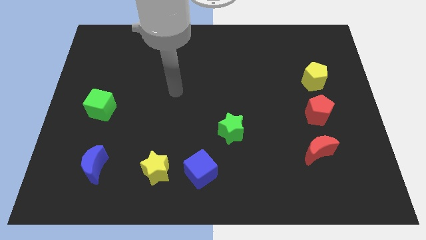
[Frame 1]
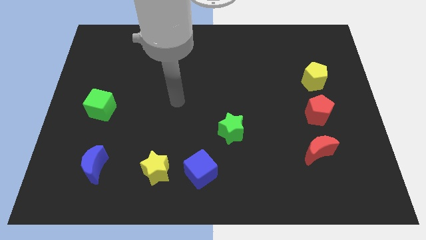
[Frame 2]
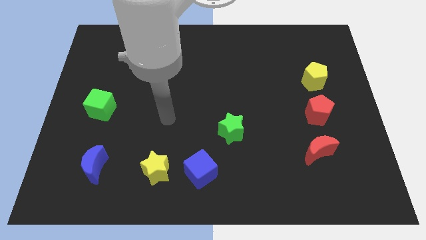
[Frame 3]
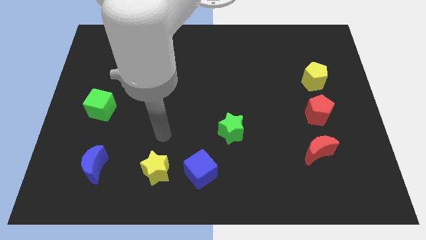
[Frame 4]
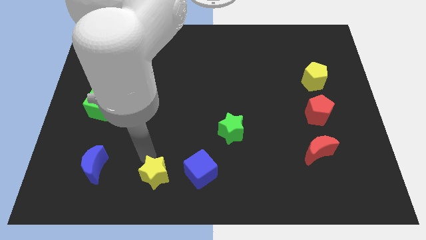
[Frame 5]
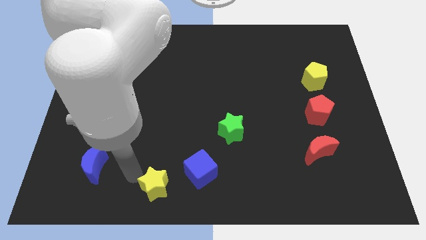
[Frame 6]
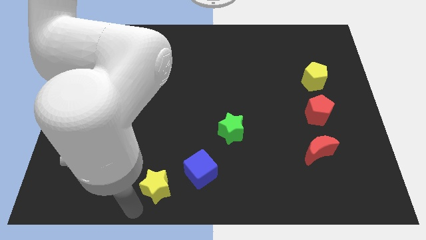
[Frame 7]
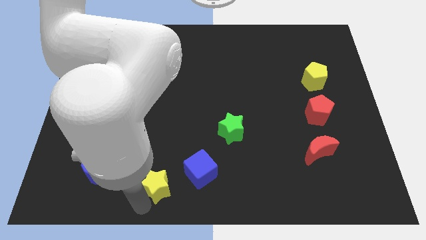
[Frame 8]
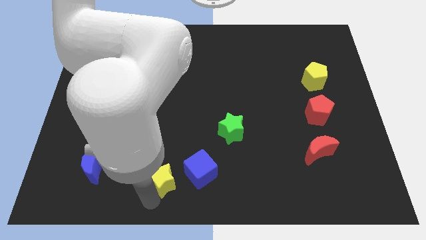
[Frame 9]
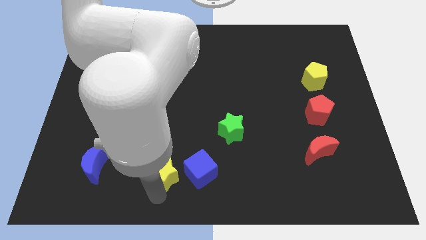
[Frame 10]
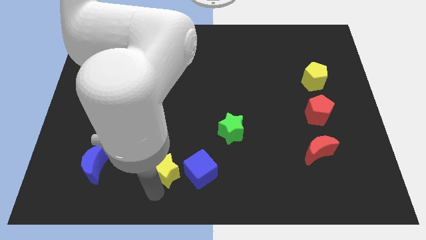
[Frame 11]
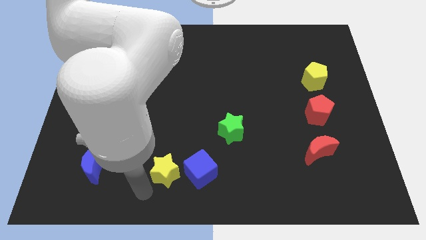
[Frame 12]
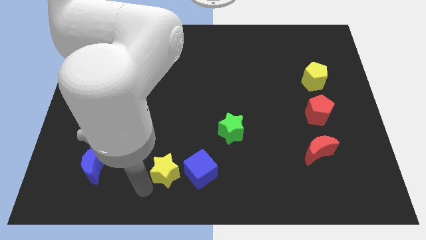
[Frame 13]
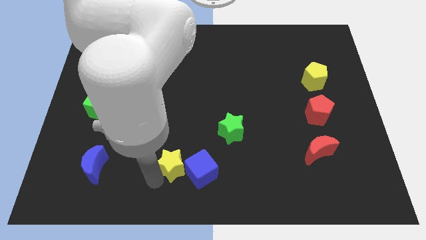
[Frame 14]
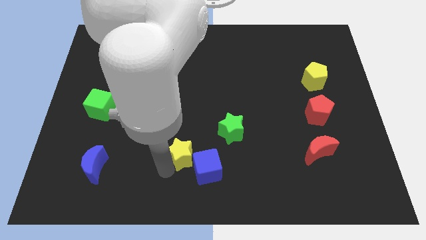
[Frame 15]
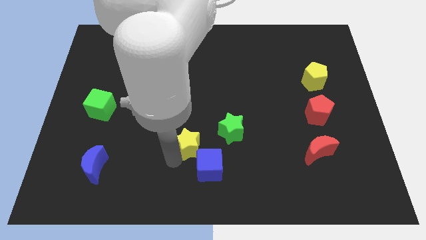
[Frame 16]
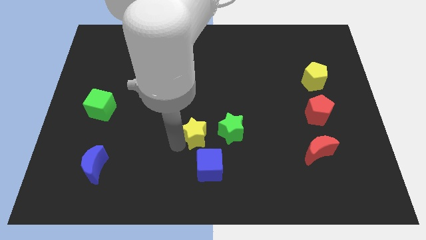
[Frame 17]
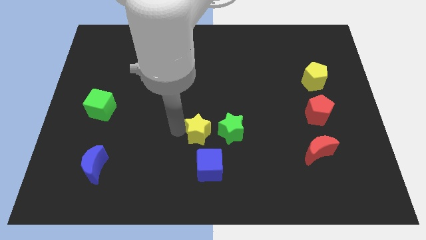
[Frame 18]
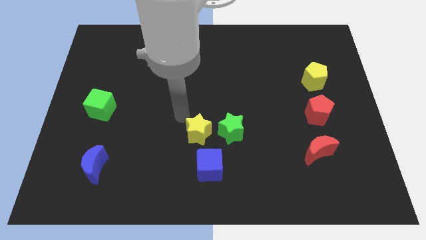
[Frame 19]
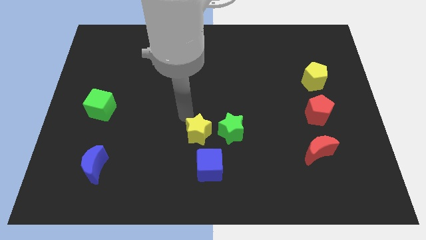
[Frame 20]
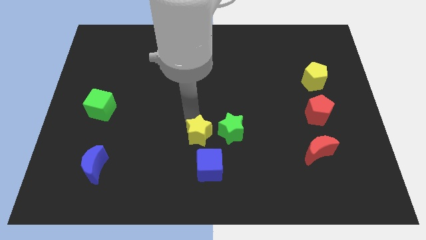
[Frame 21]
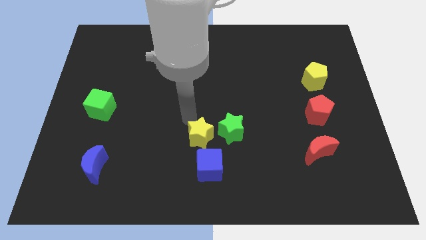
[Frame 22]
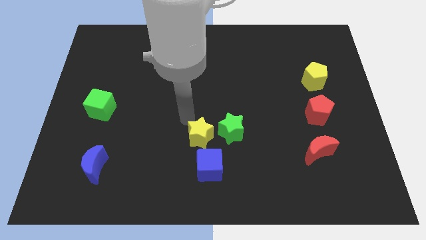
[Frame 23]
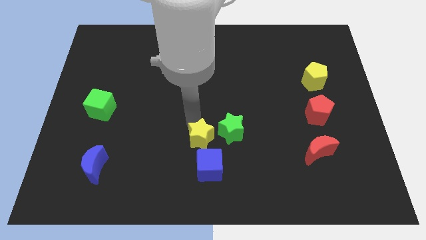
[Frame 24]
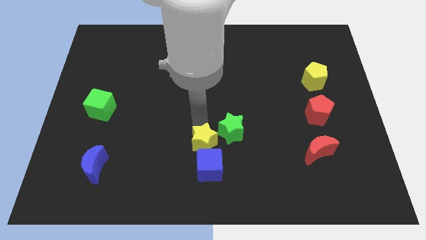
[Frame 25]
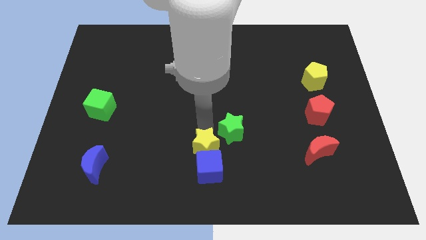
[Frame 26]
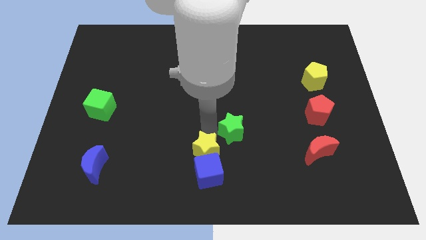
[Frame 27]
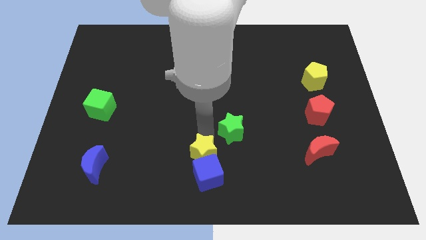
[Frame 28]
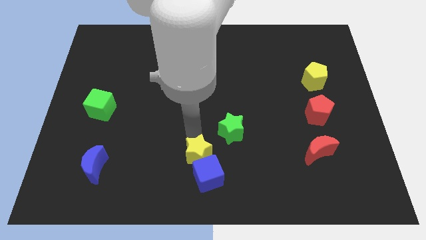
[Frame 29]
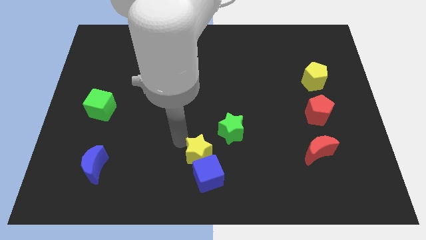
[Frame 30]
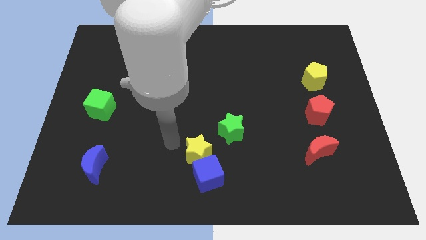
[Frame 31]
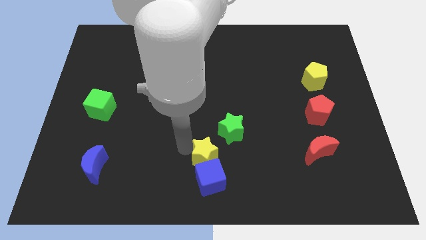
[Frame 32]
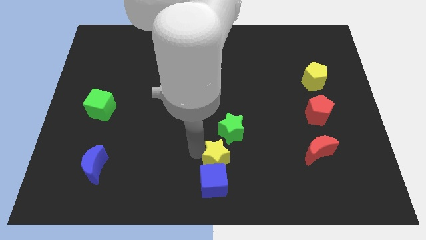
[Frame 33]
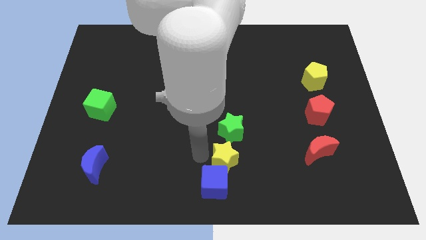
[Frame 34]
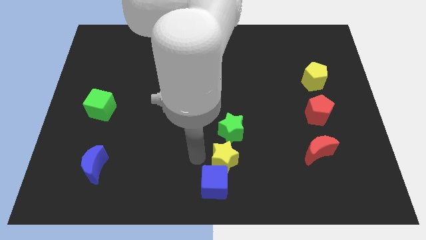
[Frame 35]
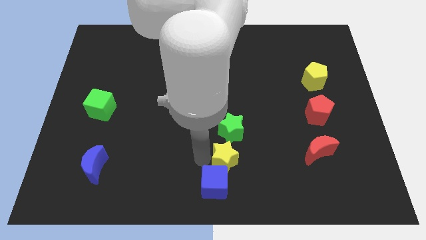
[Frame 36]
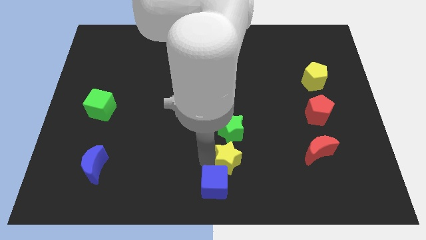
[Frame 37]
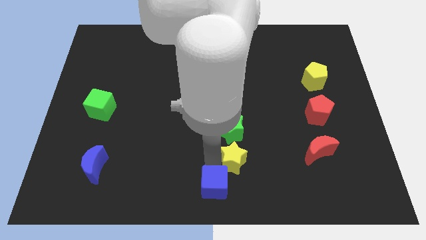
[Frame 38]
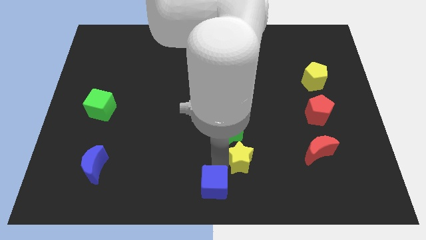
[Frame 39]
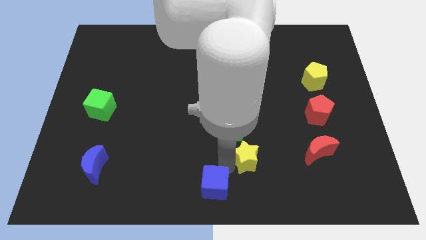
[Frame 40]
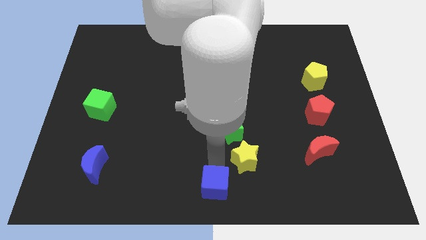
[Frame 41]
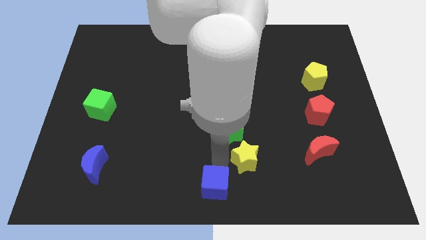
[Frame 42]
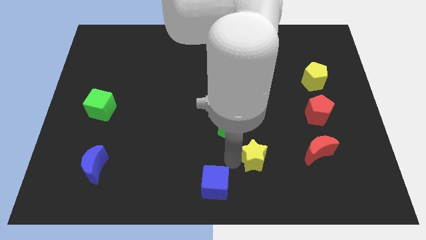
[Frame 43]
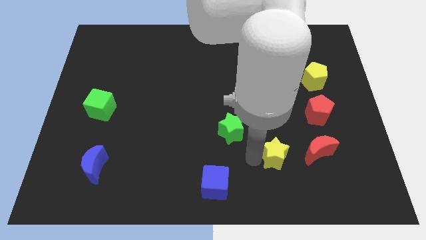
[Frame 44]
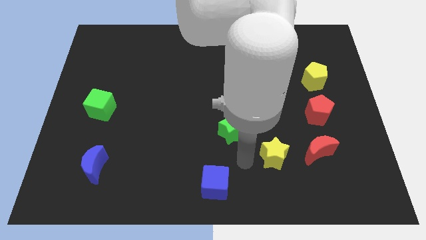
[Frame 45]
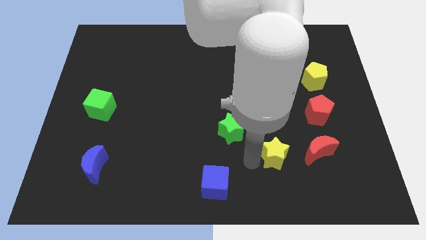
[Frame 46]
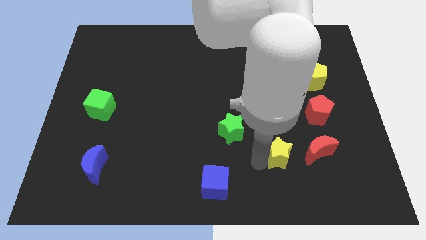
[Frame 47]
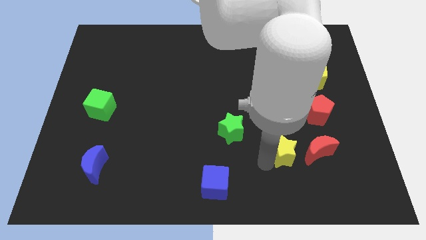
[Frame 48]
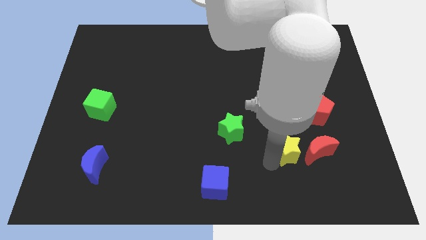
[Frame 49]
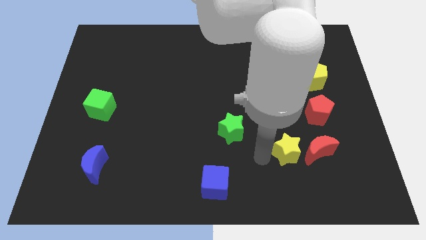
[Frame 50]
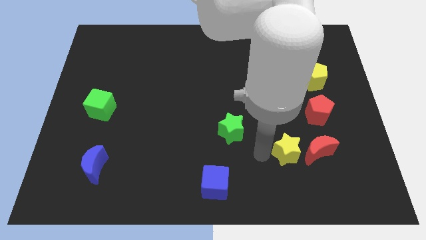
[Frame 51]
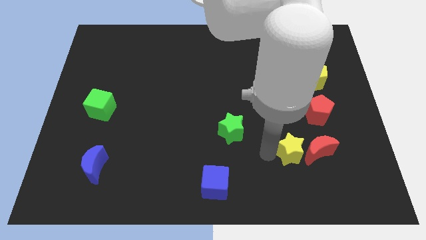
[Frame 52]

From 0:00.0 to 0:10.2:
move the yellow star close to the red moon

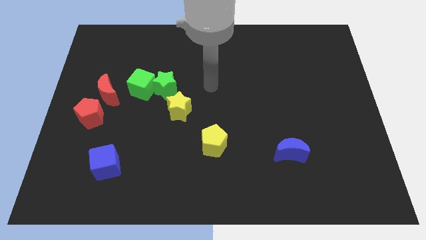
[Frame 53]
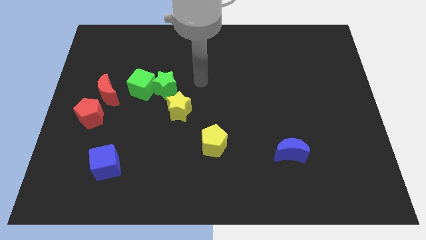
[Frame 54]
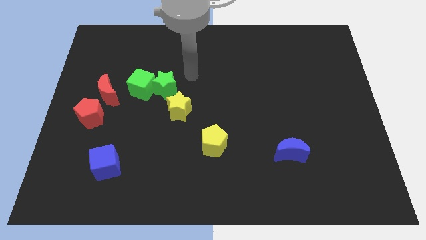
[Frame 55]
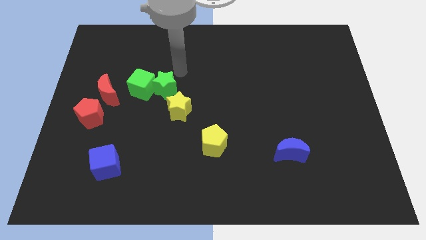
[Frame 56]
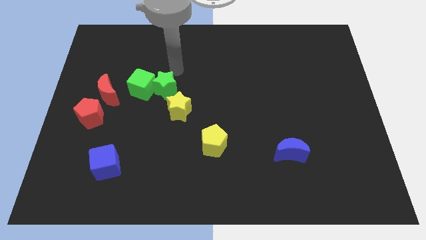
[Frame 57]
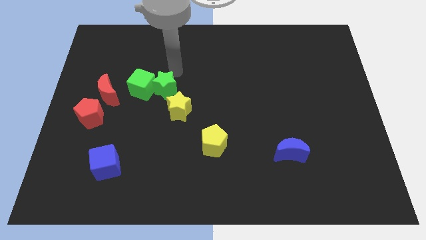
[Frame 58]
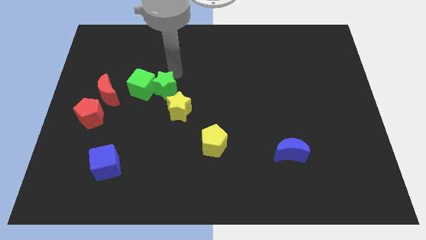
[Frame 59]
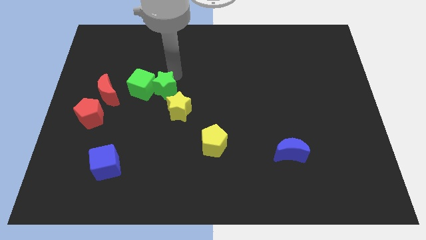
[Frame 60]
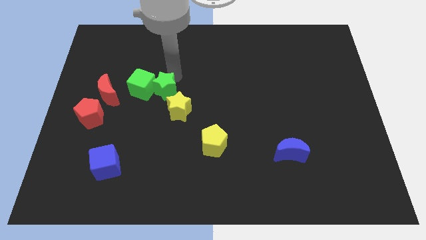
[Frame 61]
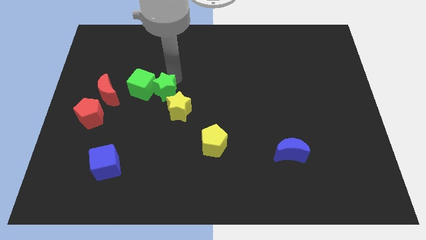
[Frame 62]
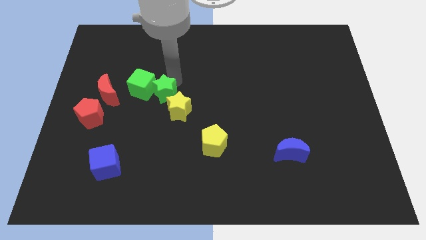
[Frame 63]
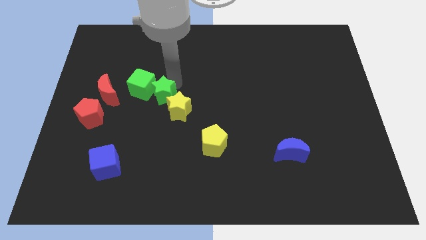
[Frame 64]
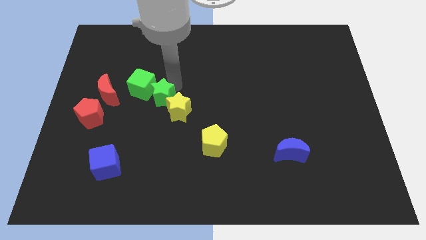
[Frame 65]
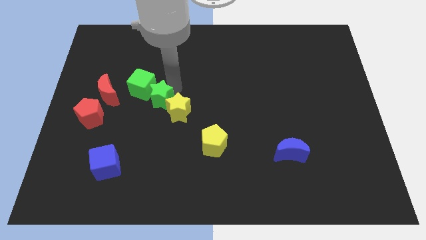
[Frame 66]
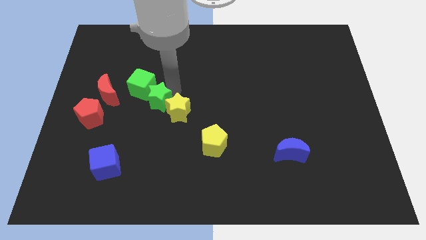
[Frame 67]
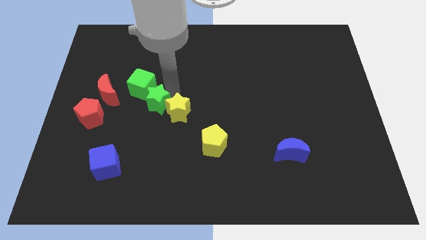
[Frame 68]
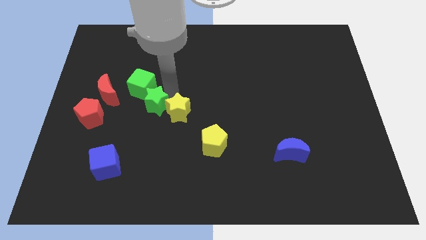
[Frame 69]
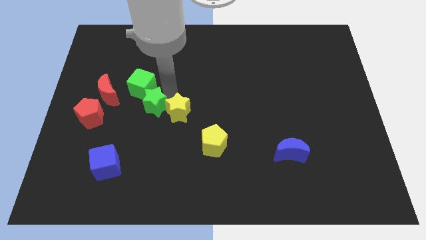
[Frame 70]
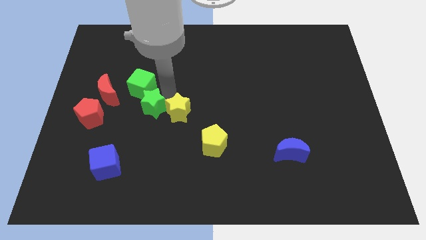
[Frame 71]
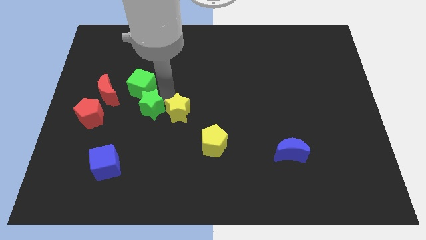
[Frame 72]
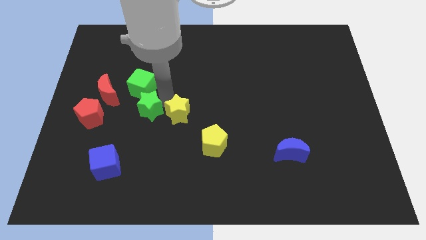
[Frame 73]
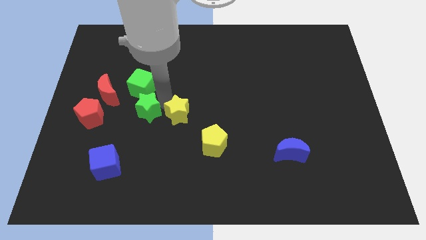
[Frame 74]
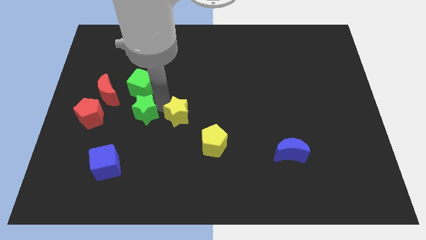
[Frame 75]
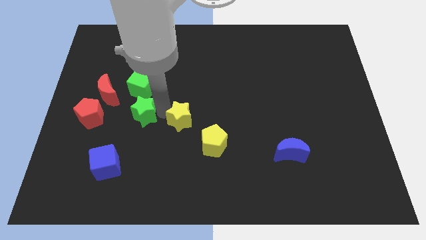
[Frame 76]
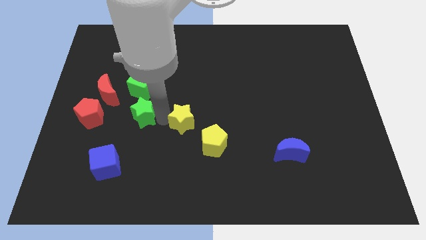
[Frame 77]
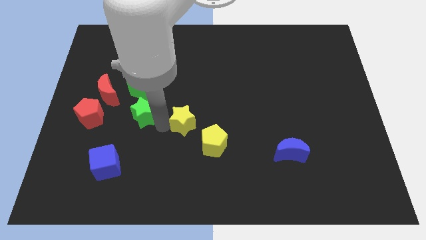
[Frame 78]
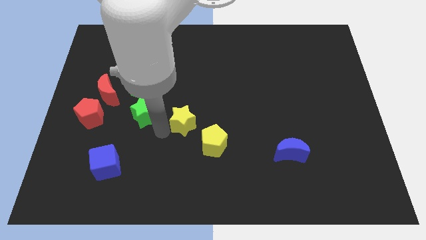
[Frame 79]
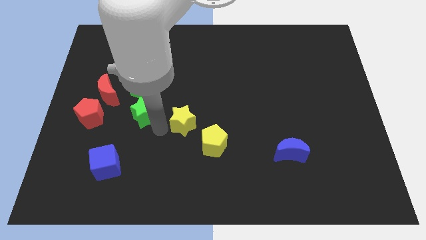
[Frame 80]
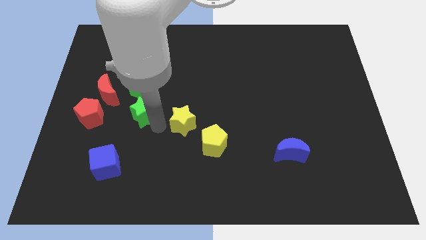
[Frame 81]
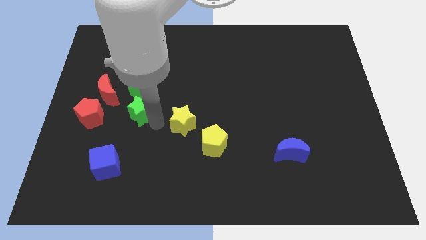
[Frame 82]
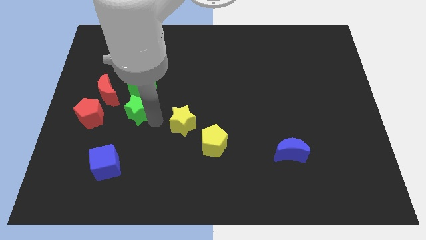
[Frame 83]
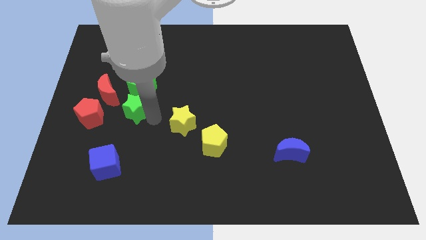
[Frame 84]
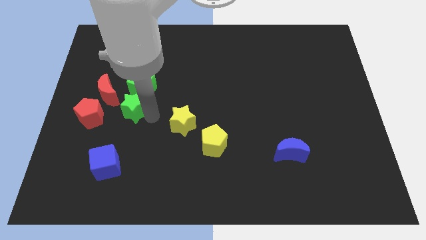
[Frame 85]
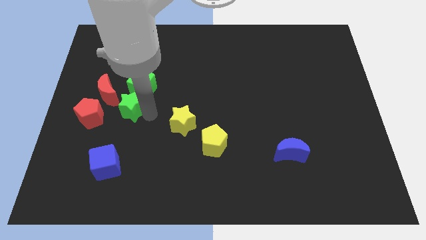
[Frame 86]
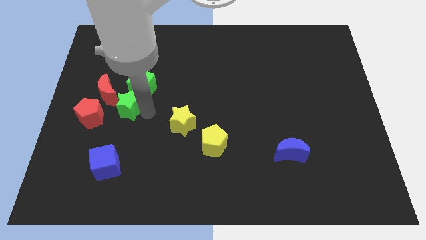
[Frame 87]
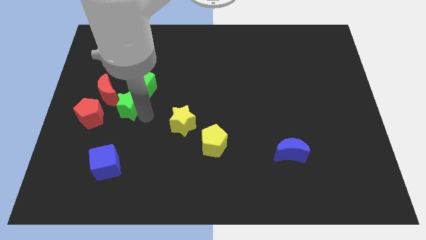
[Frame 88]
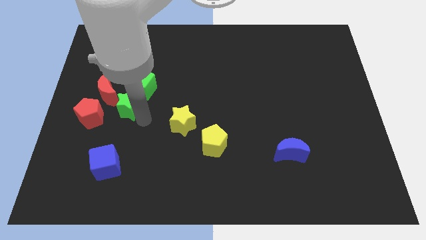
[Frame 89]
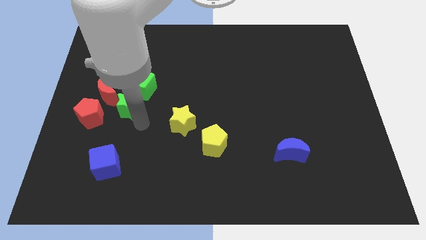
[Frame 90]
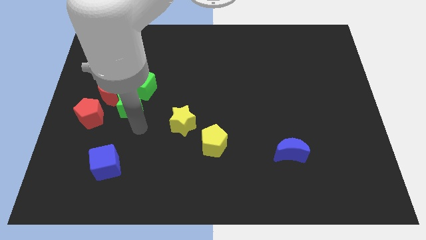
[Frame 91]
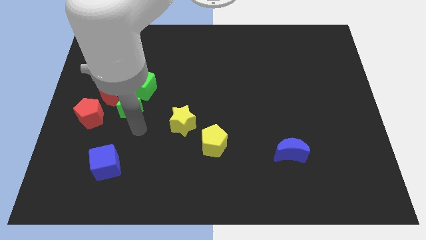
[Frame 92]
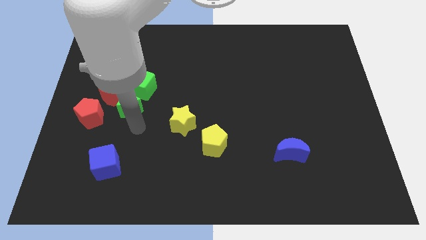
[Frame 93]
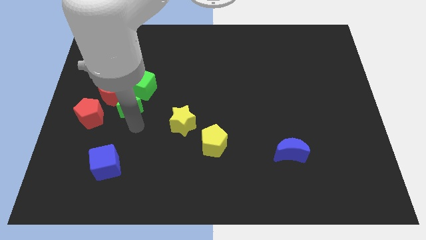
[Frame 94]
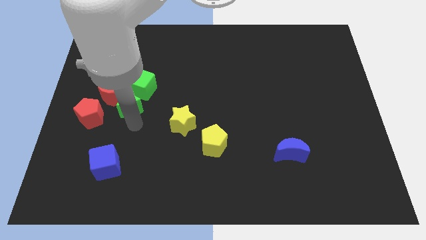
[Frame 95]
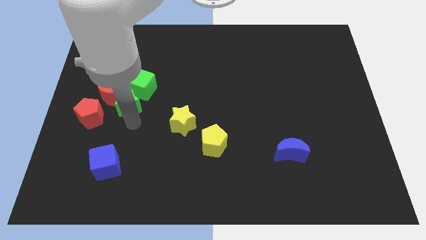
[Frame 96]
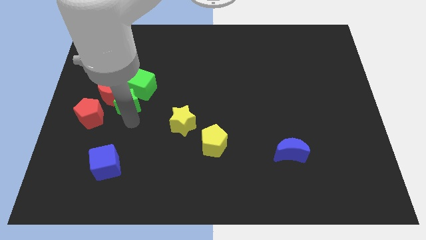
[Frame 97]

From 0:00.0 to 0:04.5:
push the green star towards the red moon
